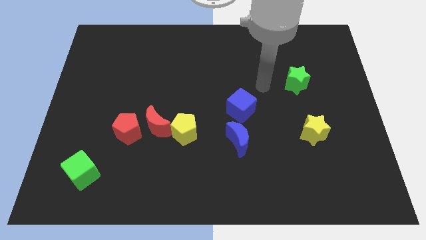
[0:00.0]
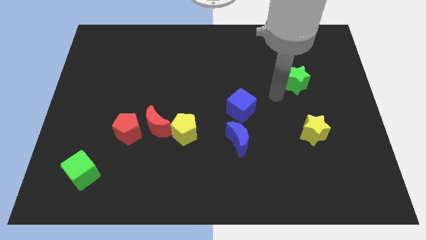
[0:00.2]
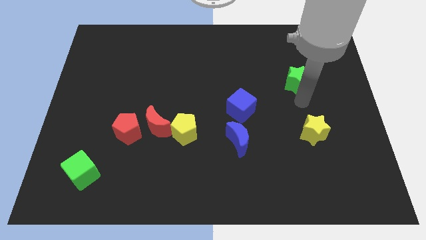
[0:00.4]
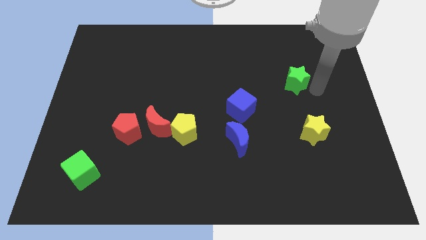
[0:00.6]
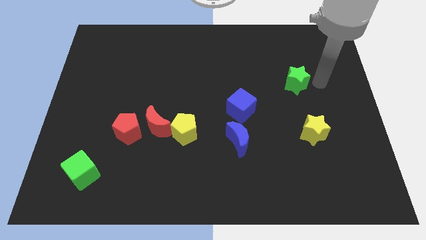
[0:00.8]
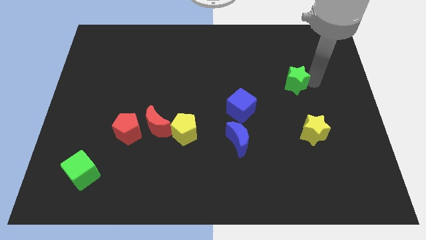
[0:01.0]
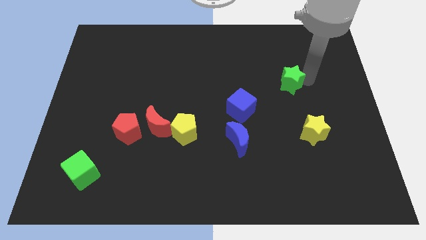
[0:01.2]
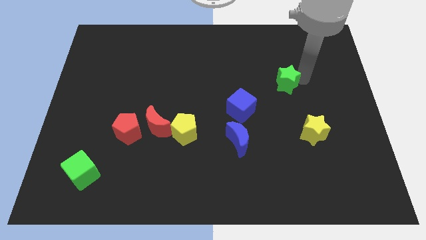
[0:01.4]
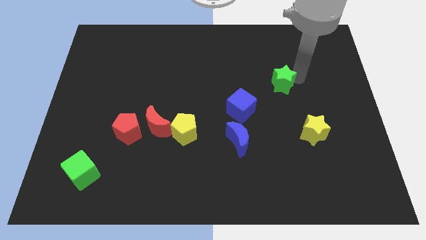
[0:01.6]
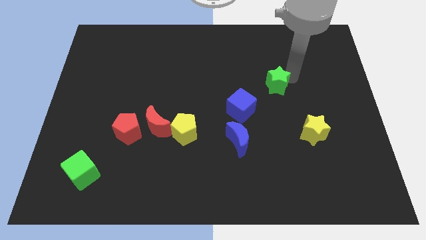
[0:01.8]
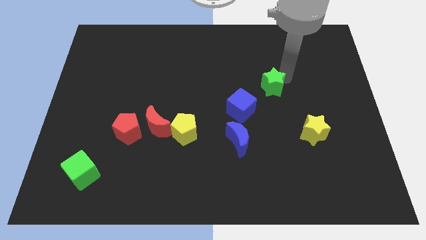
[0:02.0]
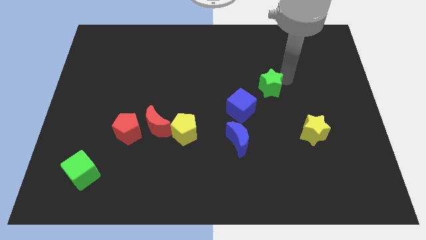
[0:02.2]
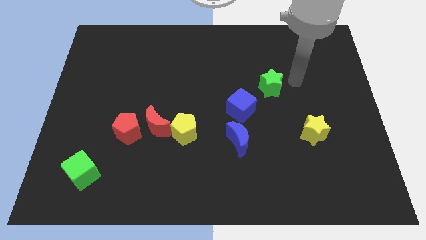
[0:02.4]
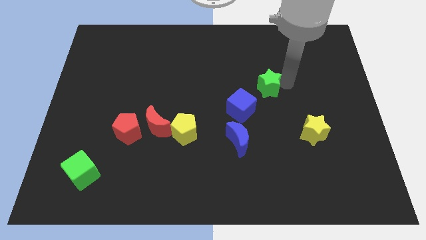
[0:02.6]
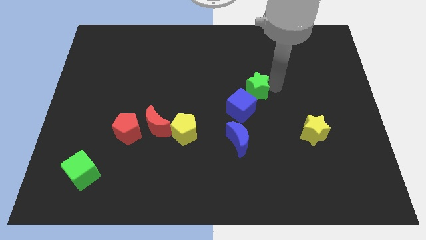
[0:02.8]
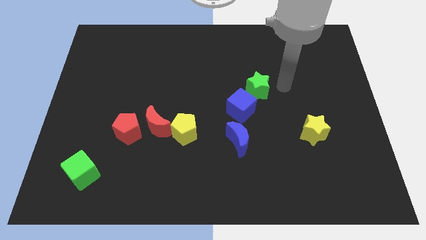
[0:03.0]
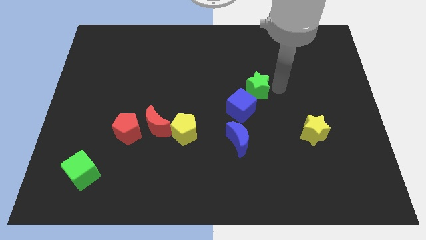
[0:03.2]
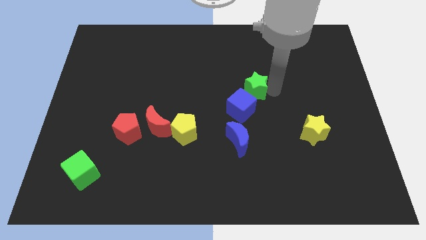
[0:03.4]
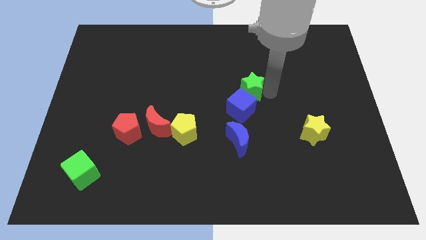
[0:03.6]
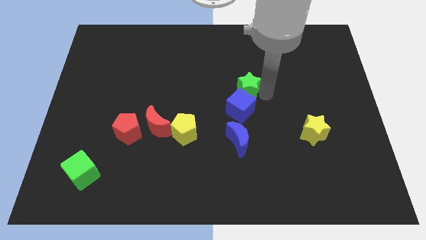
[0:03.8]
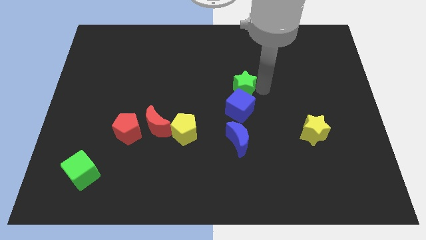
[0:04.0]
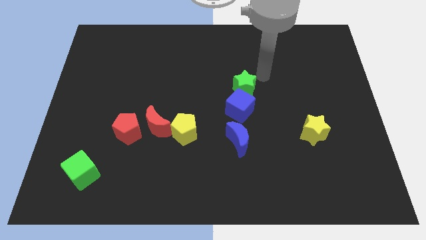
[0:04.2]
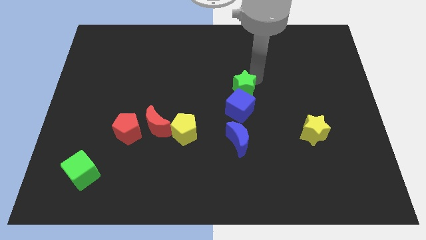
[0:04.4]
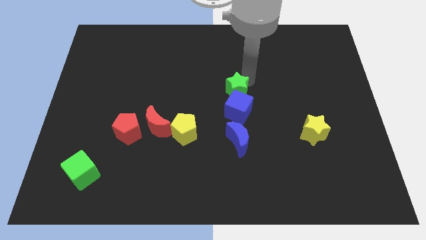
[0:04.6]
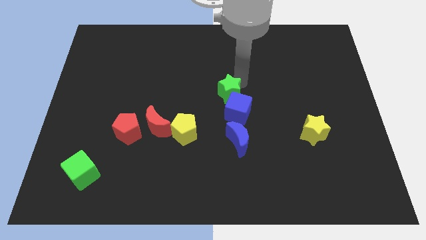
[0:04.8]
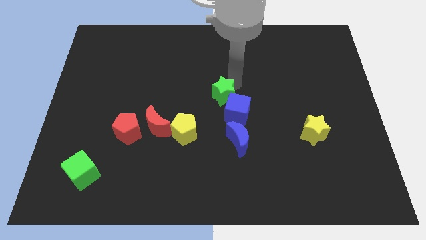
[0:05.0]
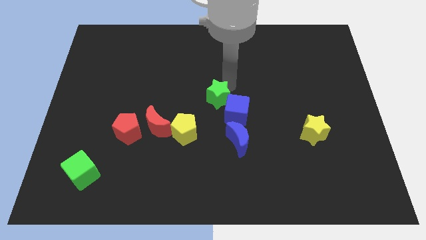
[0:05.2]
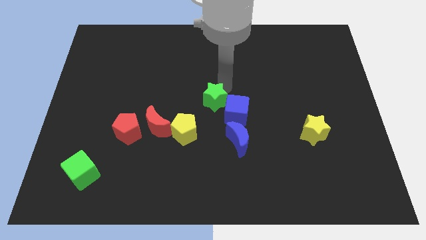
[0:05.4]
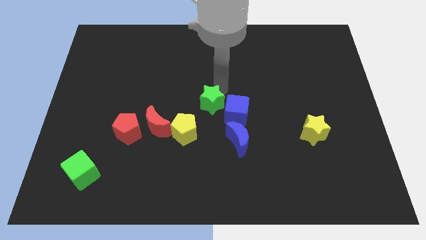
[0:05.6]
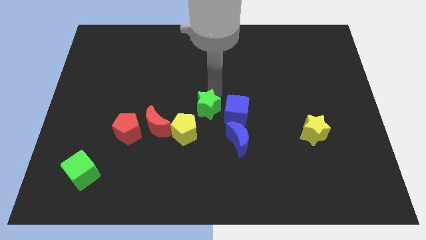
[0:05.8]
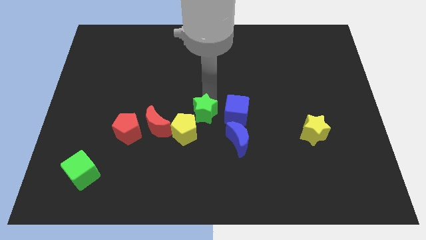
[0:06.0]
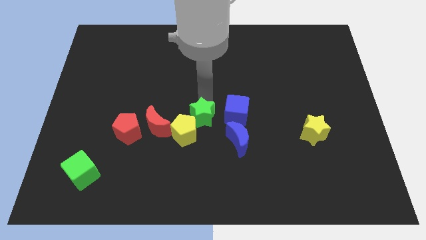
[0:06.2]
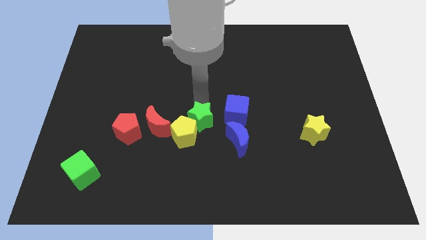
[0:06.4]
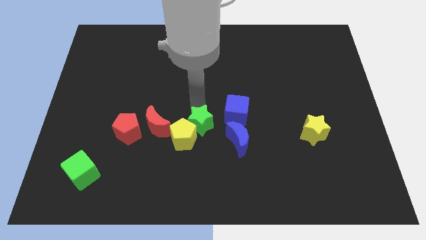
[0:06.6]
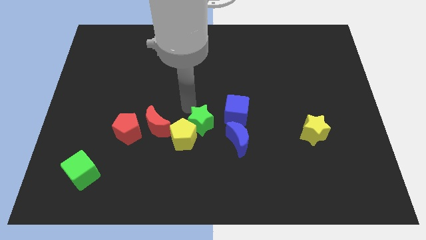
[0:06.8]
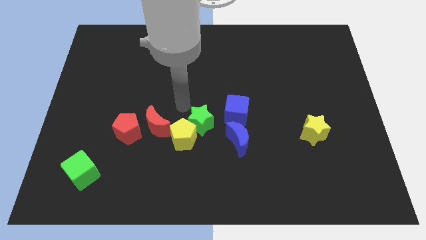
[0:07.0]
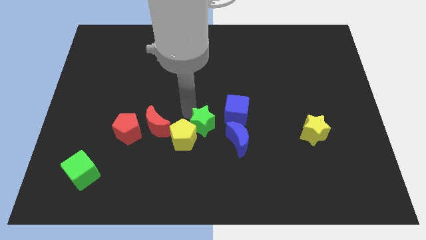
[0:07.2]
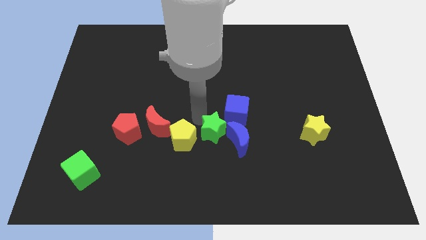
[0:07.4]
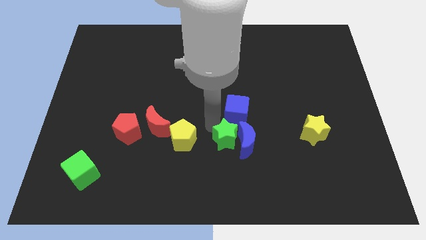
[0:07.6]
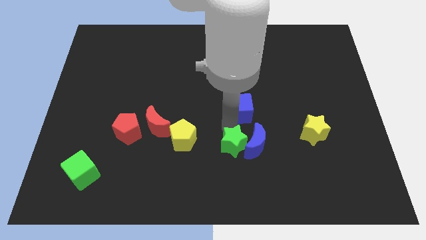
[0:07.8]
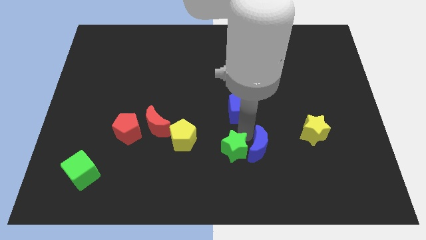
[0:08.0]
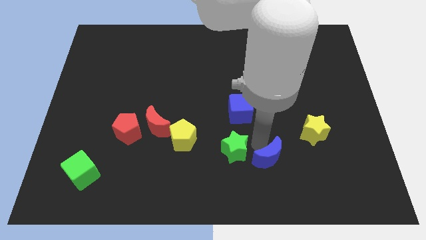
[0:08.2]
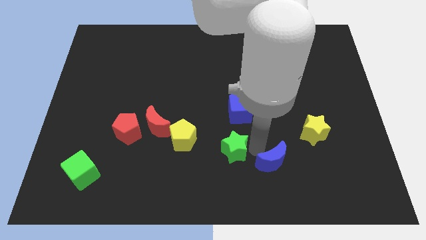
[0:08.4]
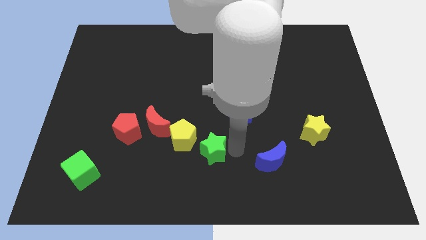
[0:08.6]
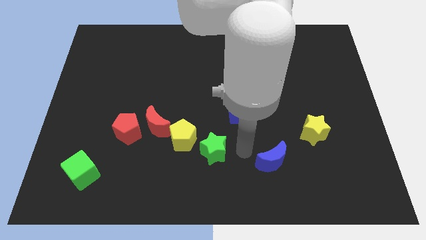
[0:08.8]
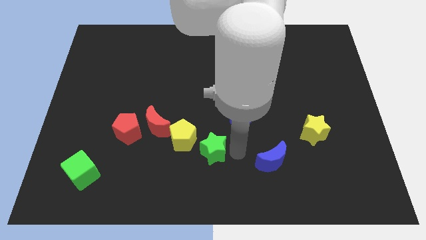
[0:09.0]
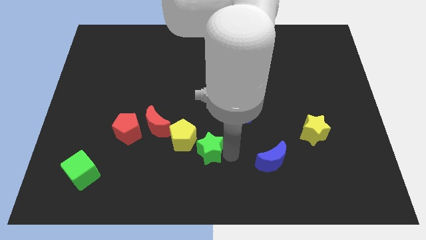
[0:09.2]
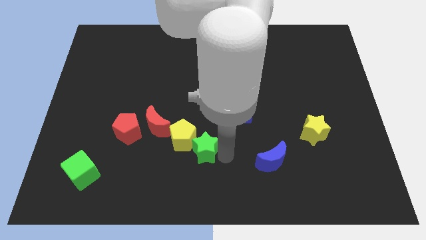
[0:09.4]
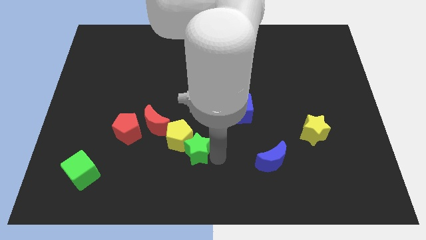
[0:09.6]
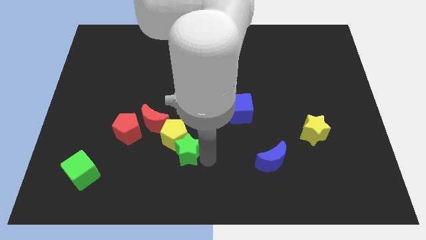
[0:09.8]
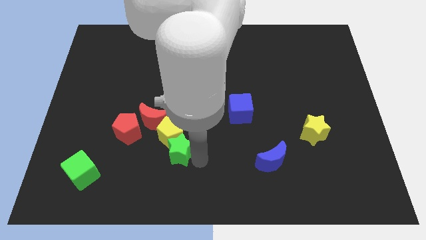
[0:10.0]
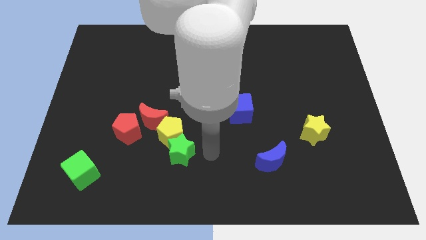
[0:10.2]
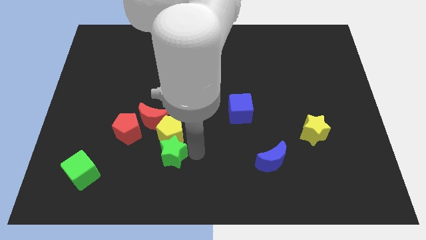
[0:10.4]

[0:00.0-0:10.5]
push the green star diagonally down and to the right of the red pentagon

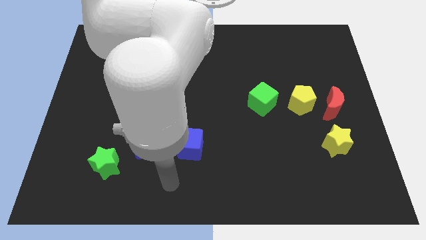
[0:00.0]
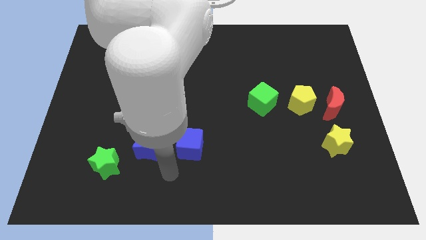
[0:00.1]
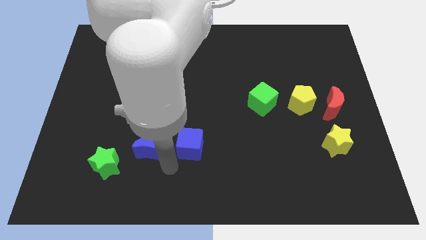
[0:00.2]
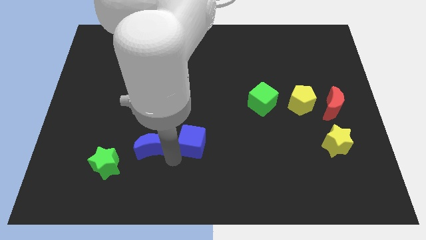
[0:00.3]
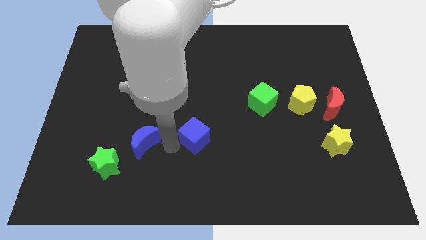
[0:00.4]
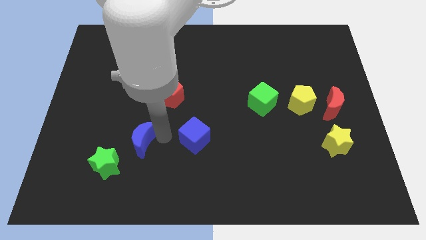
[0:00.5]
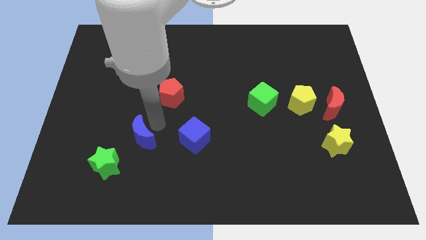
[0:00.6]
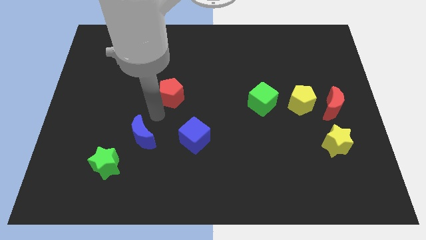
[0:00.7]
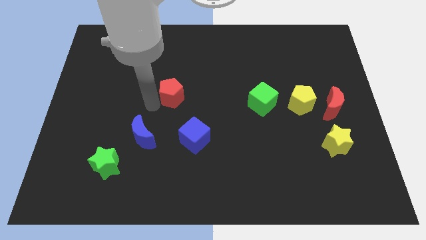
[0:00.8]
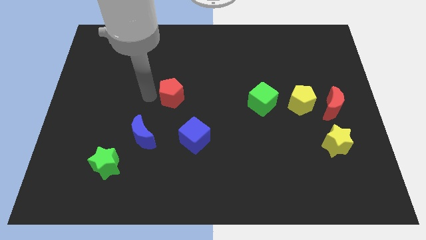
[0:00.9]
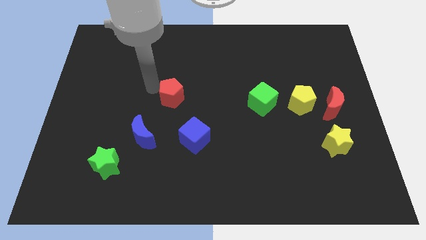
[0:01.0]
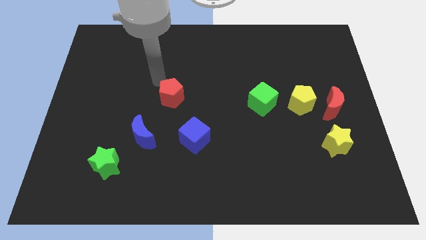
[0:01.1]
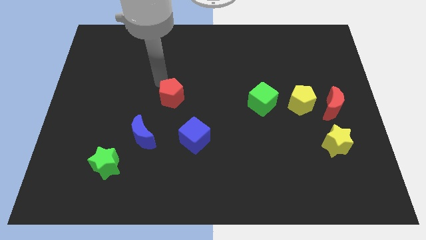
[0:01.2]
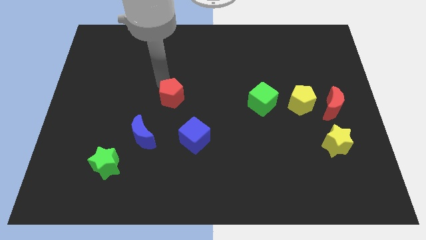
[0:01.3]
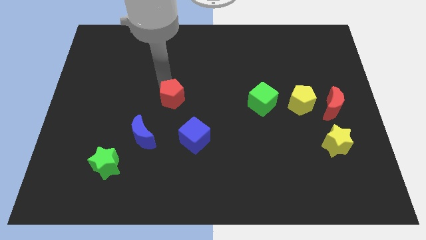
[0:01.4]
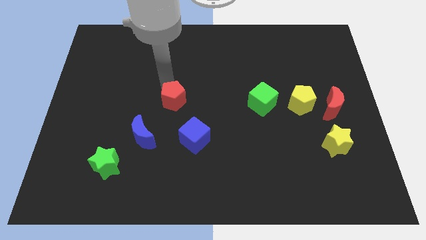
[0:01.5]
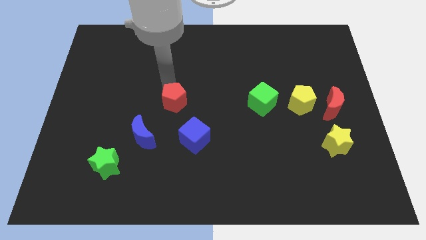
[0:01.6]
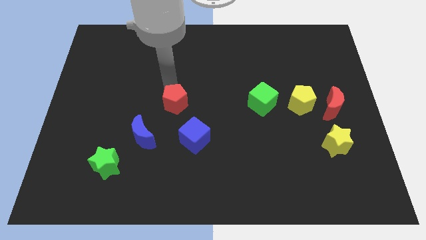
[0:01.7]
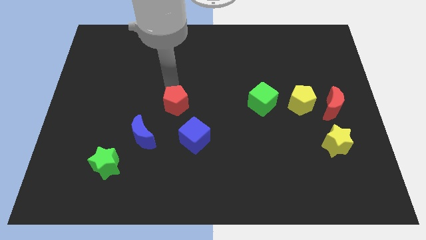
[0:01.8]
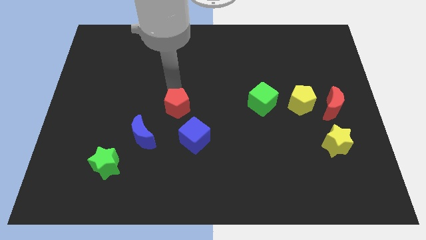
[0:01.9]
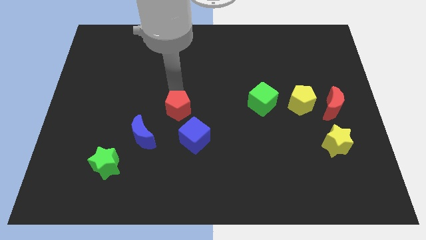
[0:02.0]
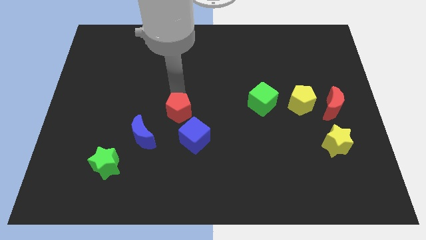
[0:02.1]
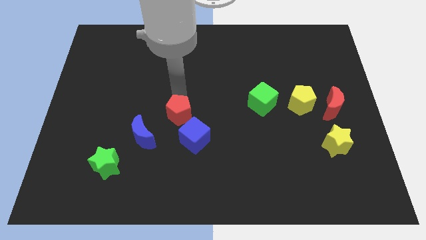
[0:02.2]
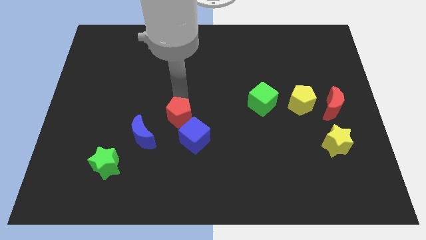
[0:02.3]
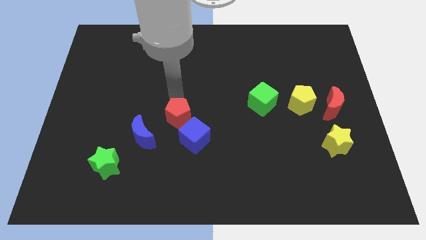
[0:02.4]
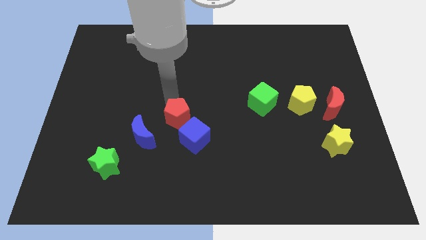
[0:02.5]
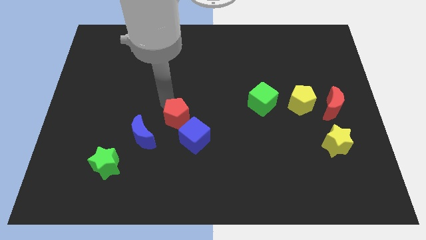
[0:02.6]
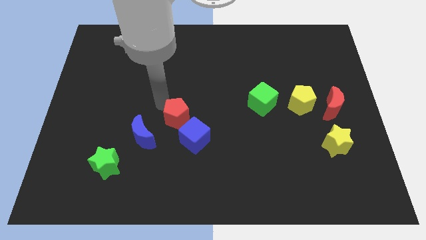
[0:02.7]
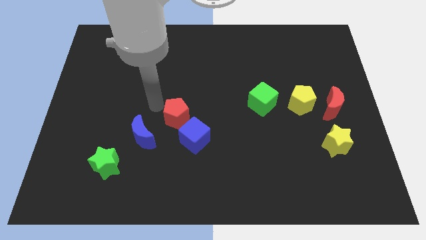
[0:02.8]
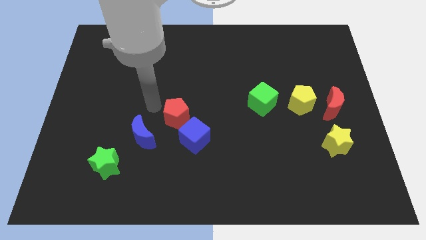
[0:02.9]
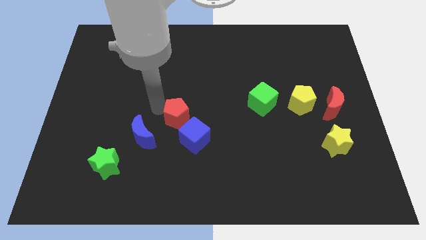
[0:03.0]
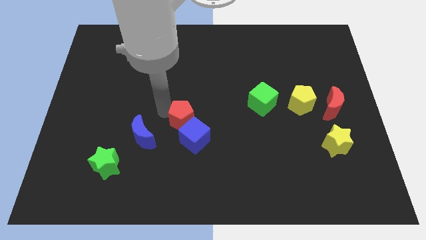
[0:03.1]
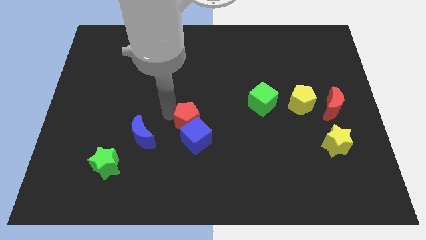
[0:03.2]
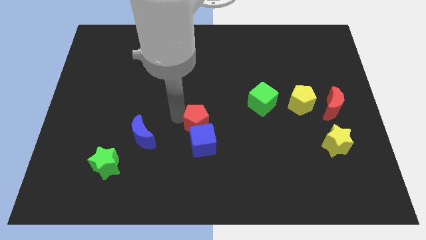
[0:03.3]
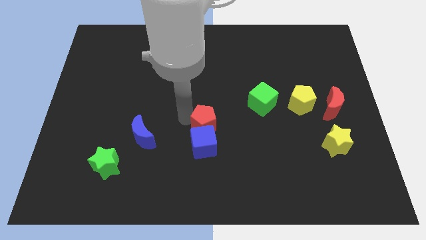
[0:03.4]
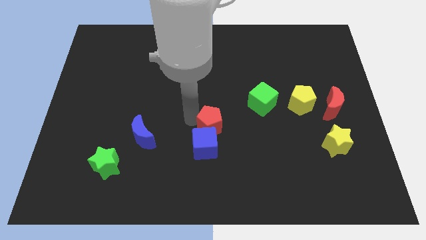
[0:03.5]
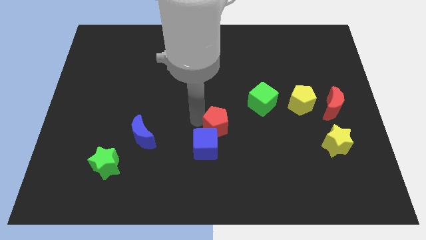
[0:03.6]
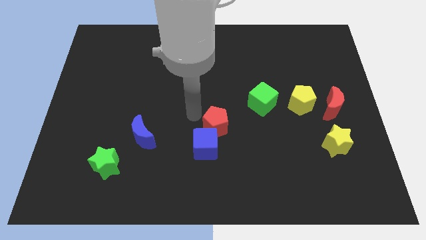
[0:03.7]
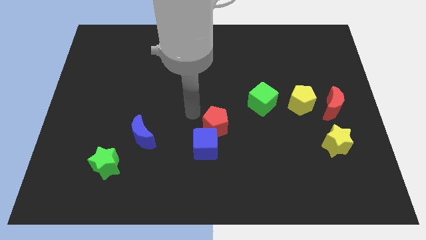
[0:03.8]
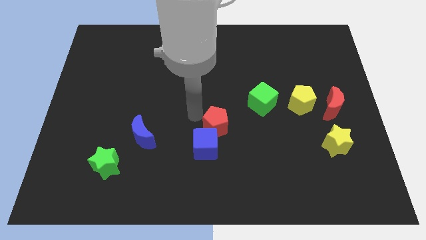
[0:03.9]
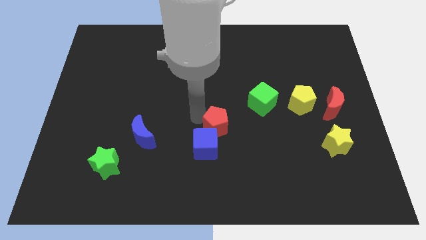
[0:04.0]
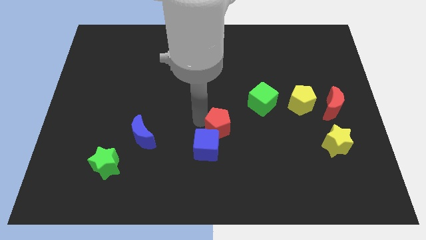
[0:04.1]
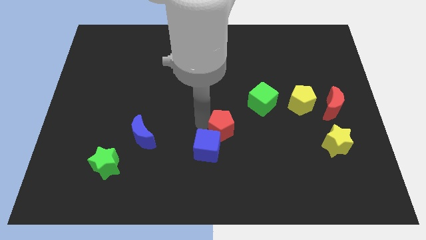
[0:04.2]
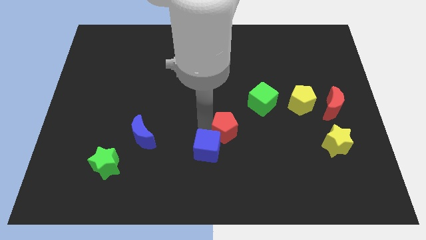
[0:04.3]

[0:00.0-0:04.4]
push the red pentagon right of the blue cube
